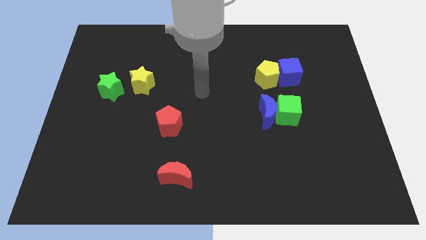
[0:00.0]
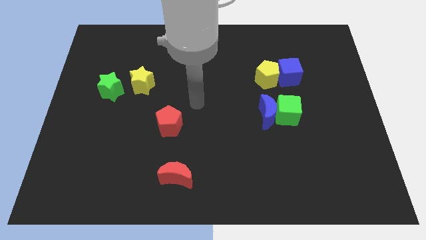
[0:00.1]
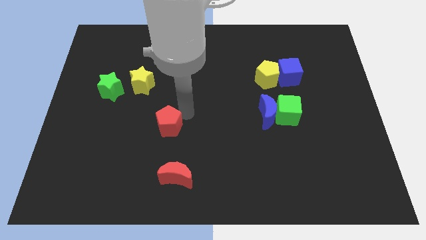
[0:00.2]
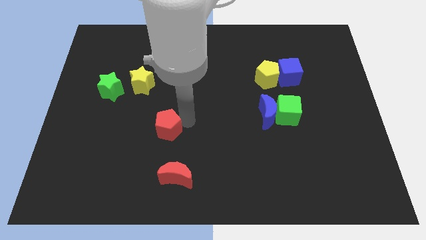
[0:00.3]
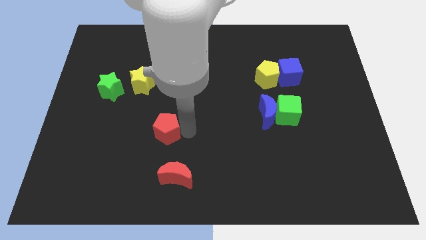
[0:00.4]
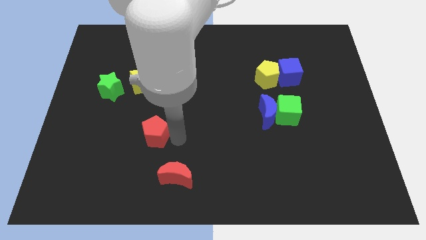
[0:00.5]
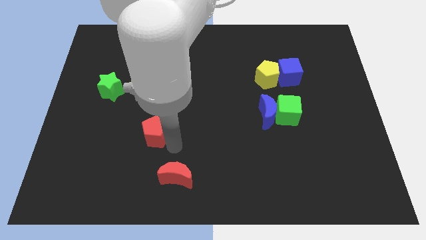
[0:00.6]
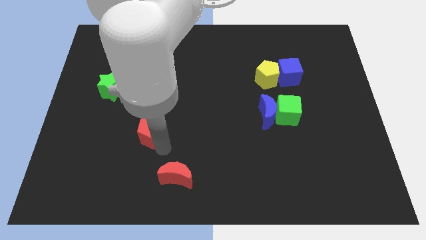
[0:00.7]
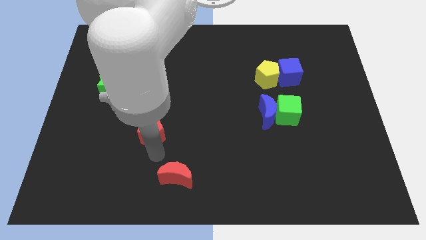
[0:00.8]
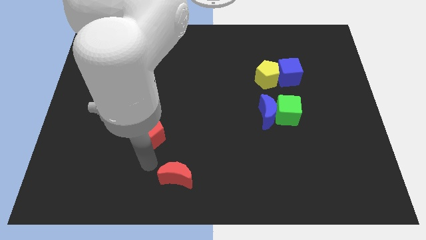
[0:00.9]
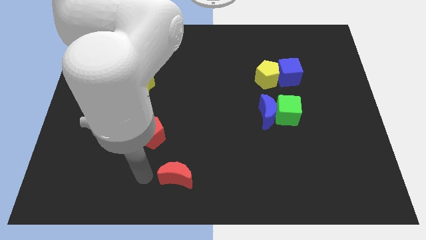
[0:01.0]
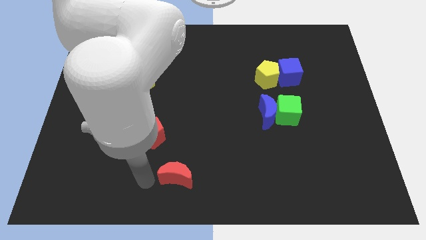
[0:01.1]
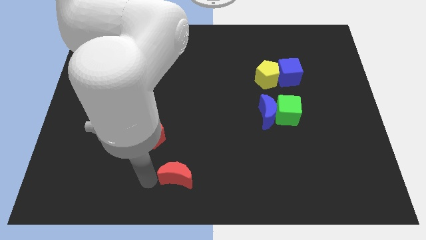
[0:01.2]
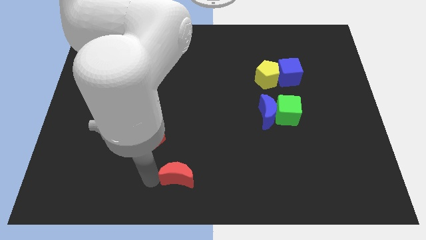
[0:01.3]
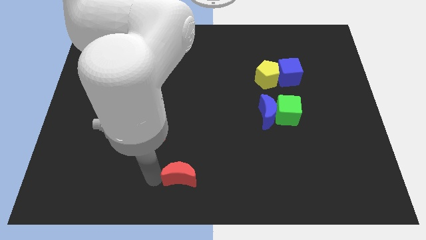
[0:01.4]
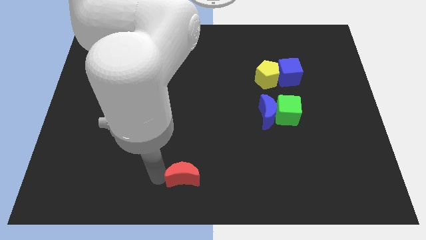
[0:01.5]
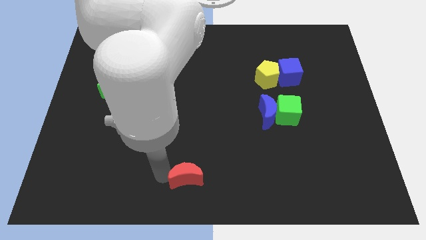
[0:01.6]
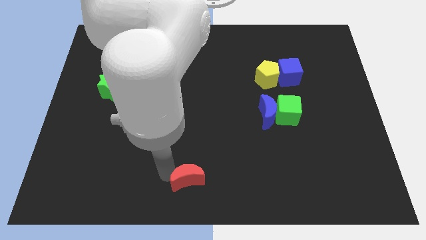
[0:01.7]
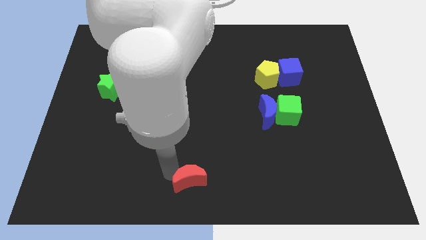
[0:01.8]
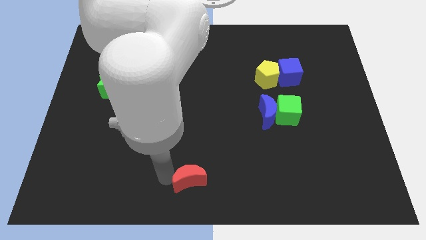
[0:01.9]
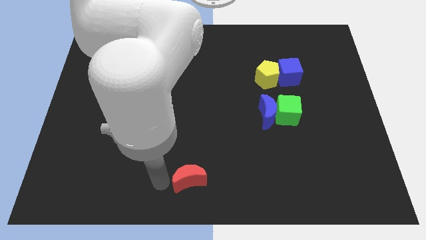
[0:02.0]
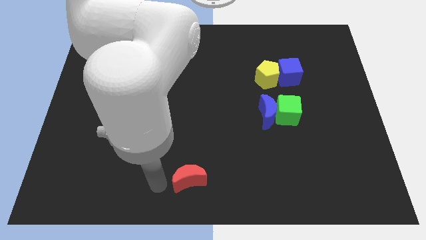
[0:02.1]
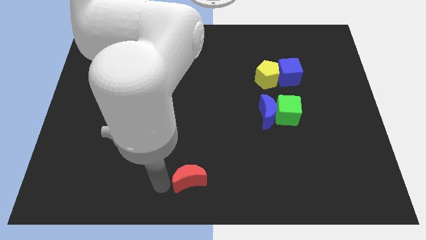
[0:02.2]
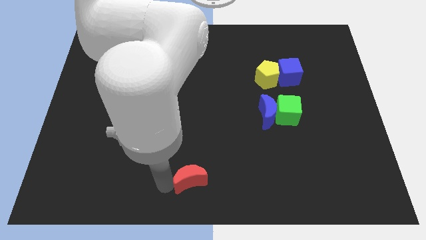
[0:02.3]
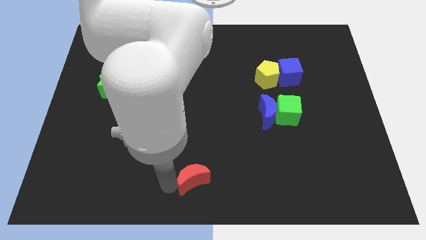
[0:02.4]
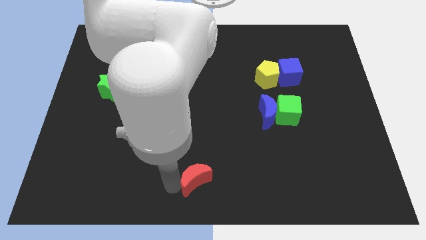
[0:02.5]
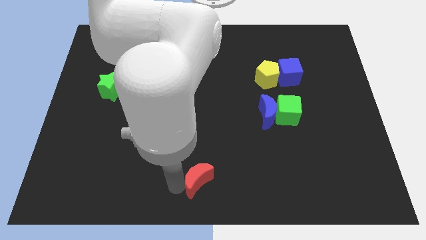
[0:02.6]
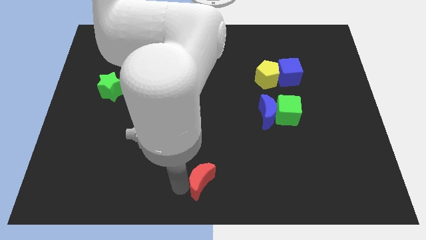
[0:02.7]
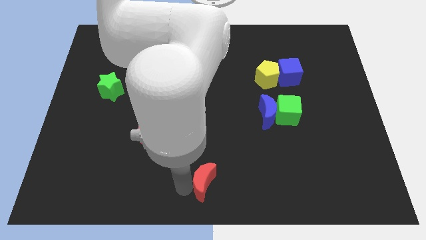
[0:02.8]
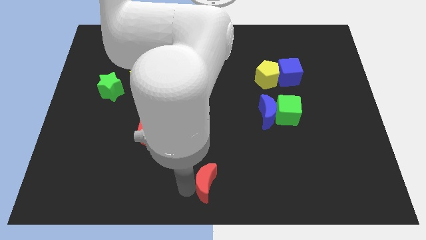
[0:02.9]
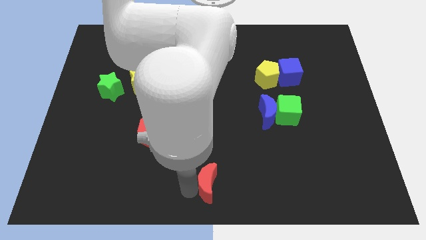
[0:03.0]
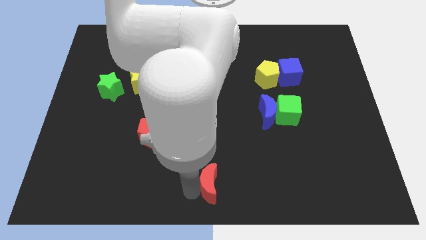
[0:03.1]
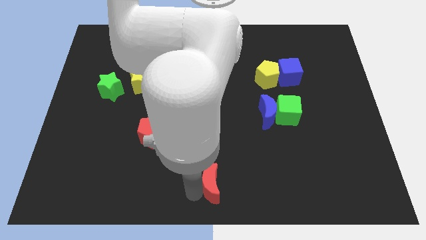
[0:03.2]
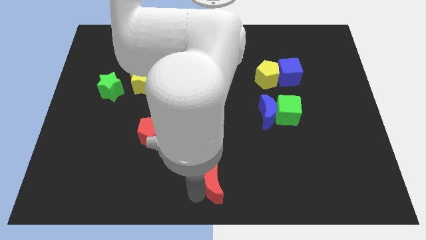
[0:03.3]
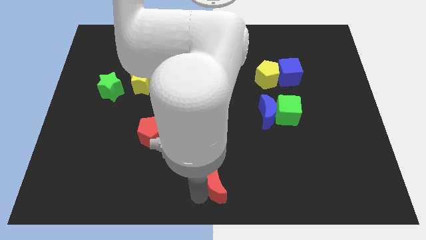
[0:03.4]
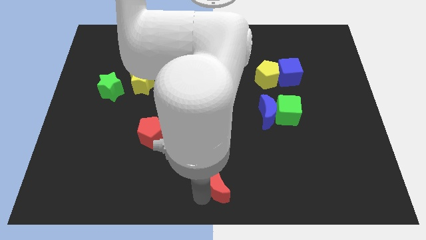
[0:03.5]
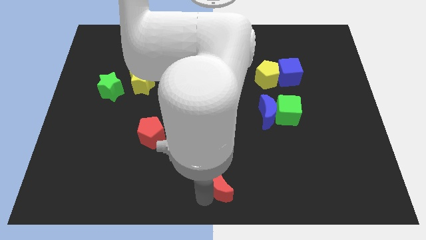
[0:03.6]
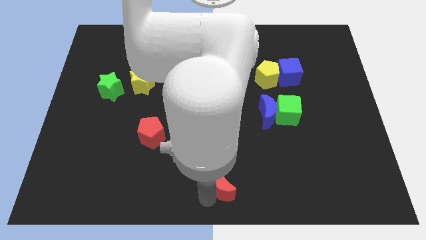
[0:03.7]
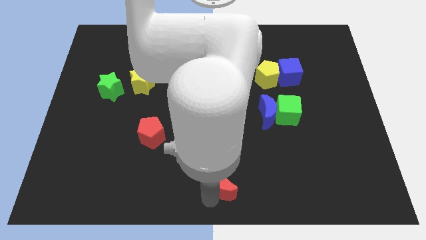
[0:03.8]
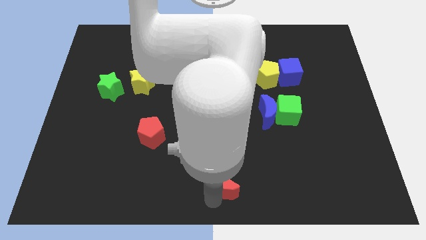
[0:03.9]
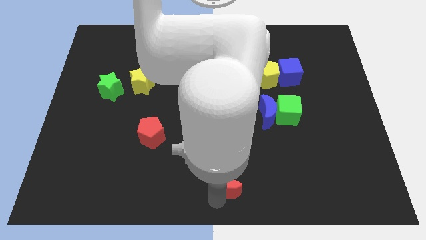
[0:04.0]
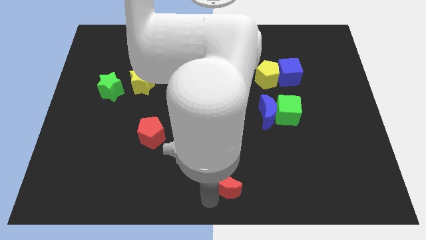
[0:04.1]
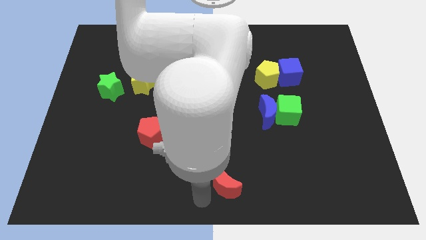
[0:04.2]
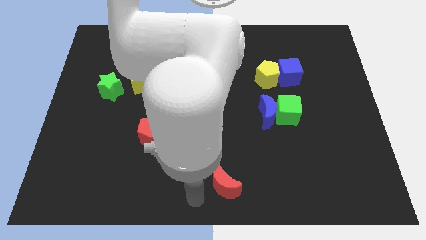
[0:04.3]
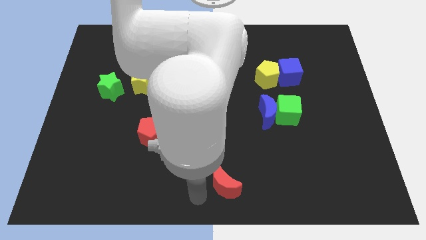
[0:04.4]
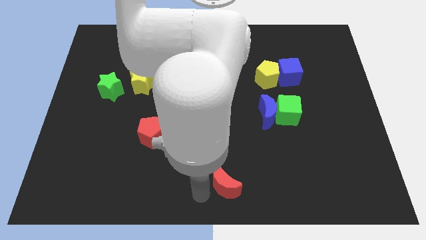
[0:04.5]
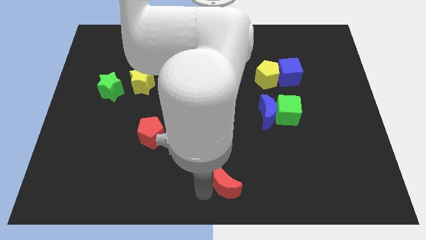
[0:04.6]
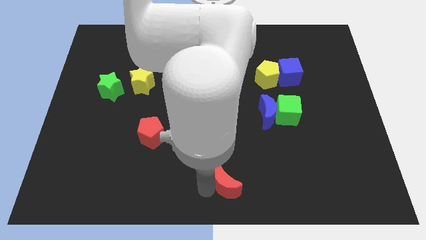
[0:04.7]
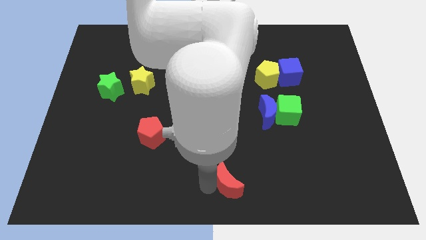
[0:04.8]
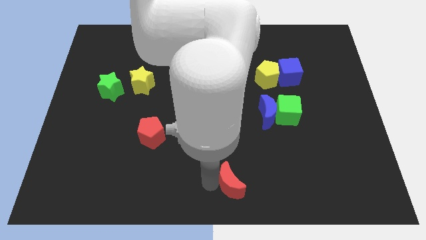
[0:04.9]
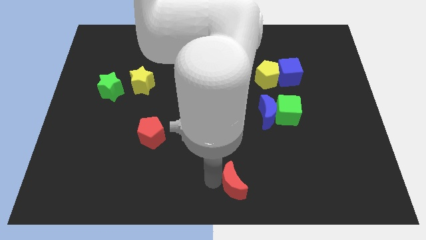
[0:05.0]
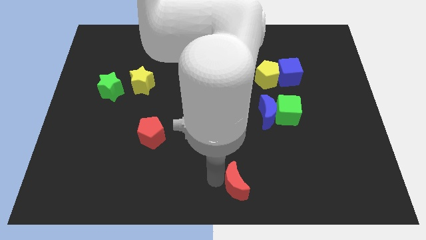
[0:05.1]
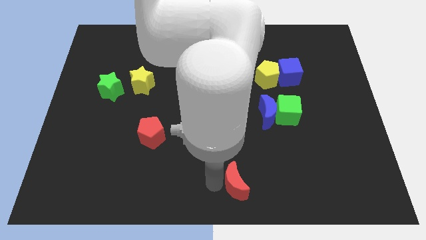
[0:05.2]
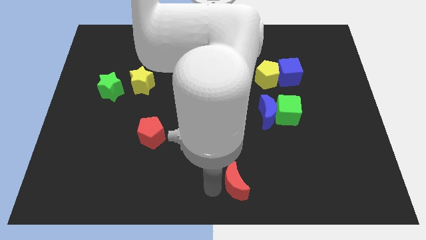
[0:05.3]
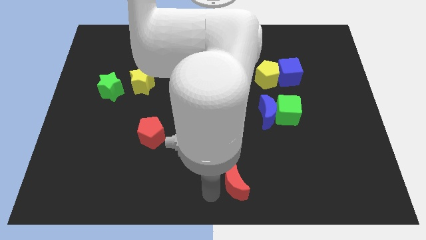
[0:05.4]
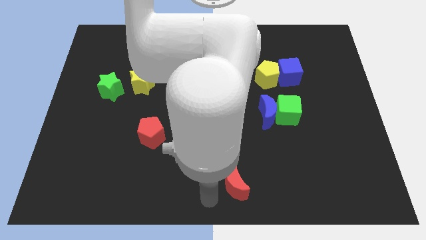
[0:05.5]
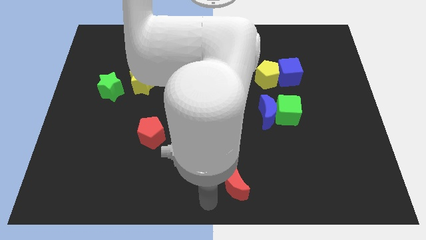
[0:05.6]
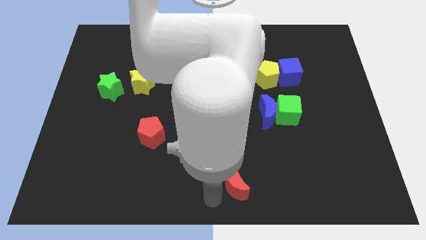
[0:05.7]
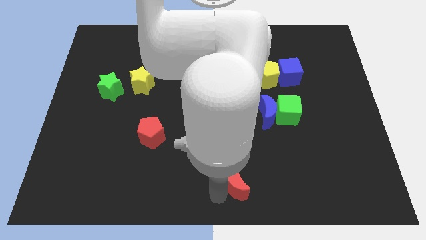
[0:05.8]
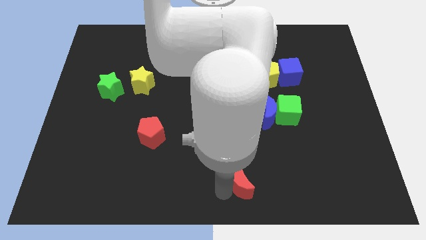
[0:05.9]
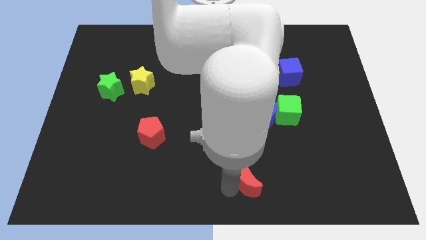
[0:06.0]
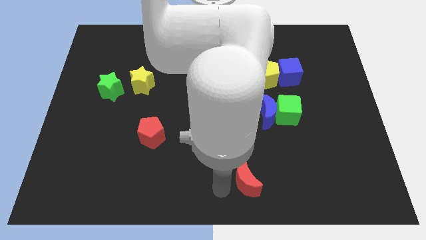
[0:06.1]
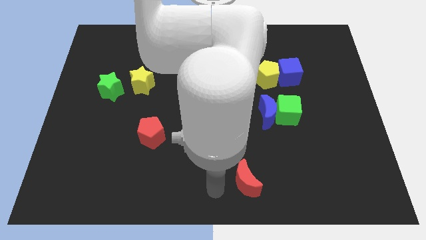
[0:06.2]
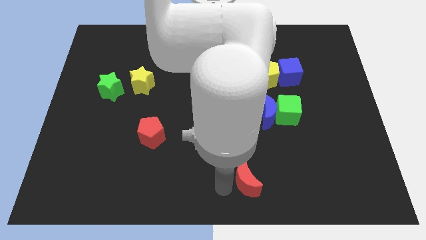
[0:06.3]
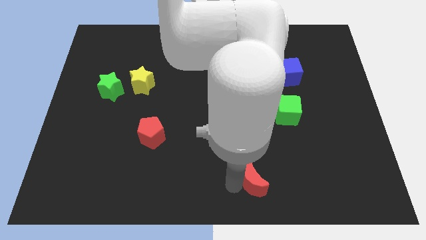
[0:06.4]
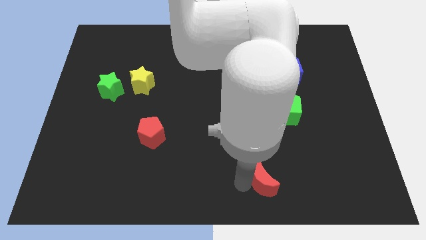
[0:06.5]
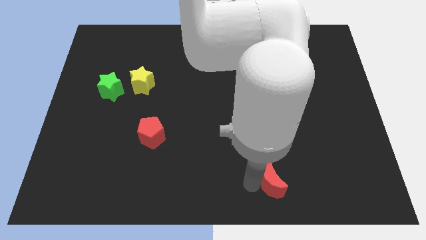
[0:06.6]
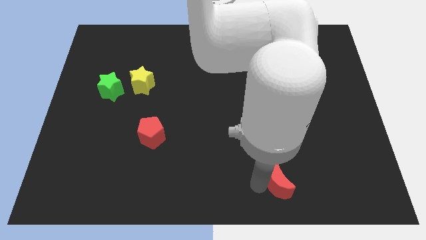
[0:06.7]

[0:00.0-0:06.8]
push the red moon right

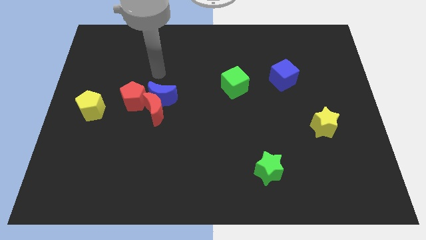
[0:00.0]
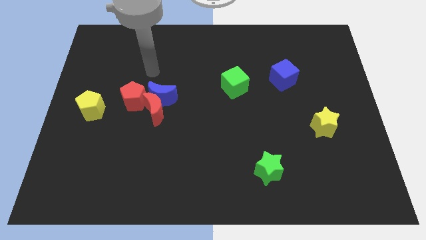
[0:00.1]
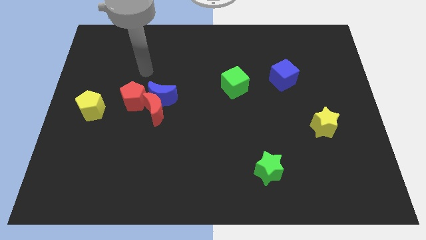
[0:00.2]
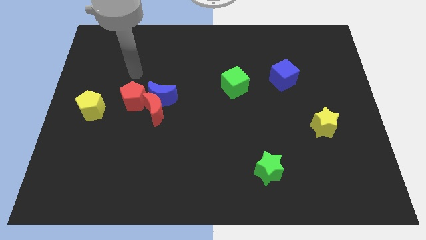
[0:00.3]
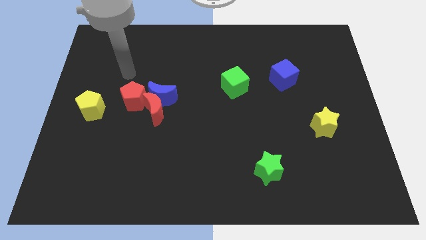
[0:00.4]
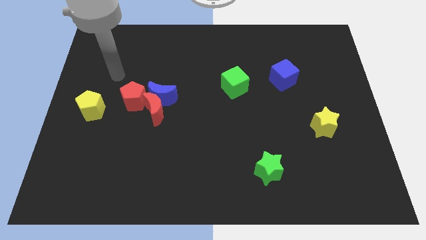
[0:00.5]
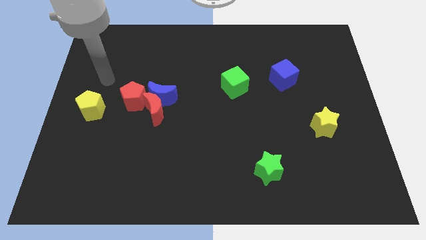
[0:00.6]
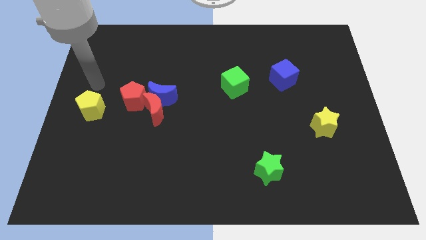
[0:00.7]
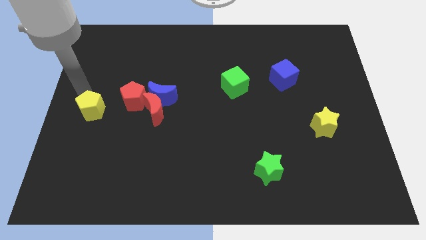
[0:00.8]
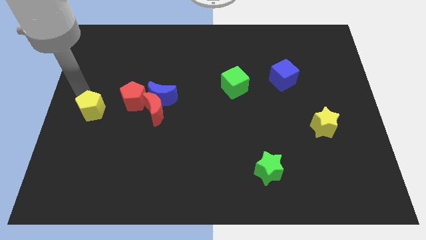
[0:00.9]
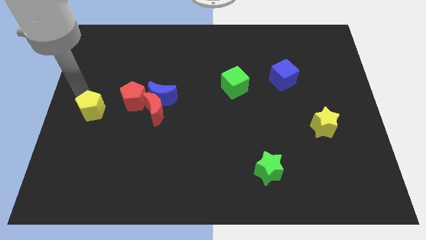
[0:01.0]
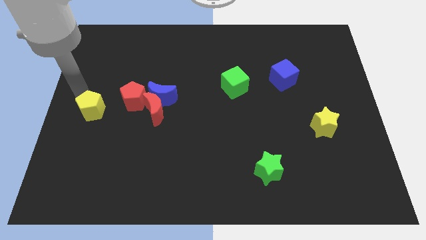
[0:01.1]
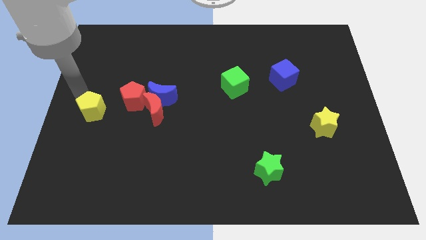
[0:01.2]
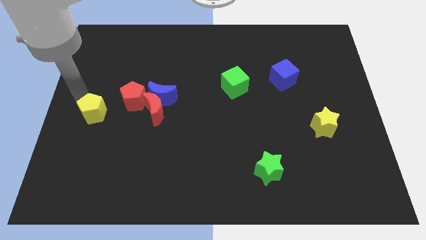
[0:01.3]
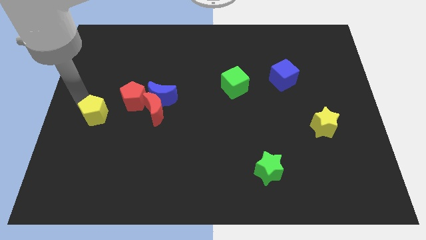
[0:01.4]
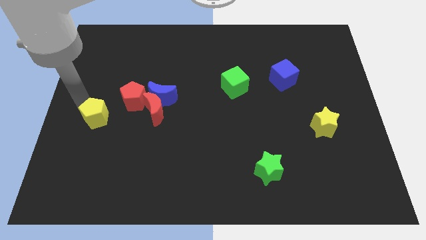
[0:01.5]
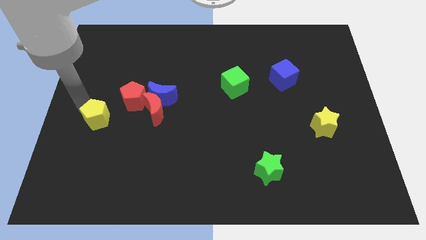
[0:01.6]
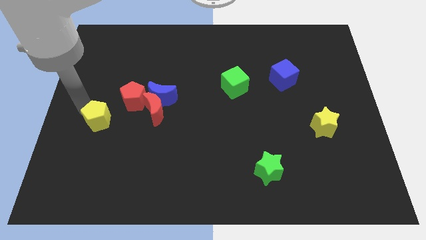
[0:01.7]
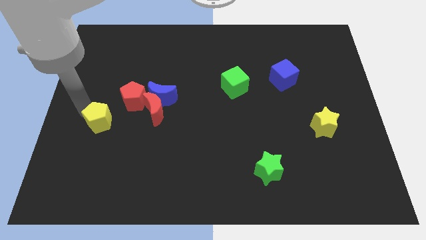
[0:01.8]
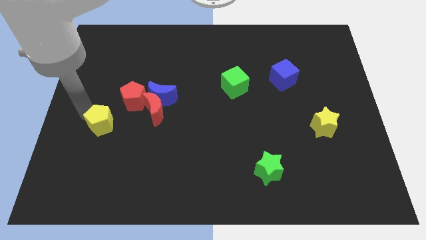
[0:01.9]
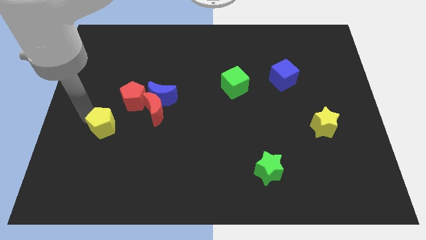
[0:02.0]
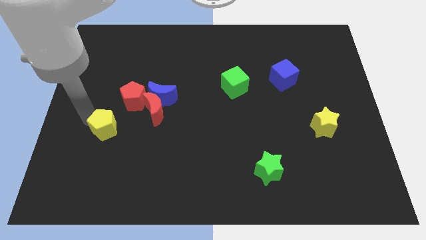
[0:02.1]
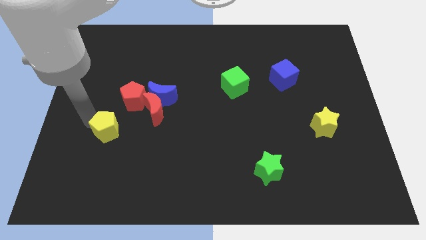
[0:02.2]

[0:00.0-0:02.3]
move the yellow pentagon down and then to the right somewhat
